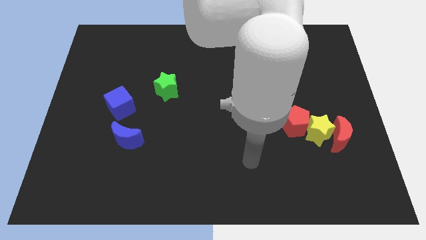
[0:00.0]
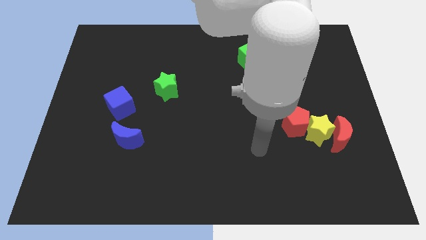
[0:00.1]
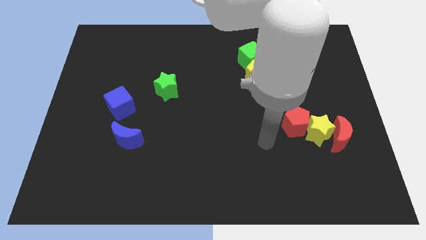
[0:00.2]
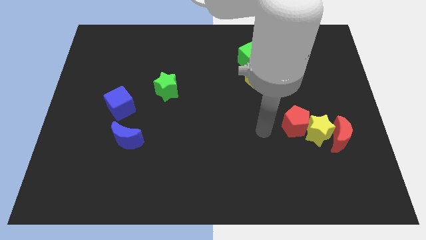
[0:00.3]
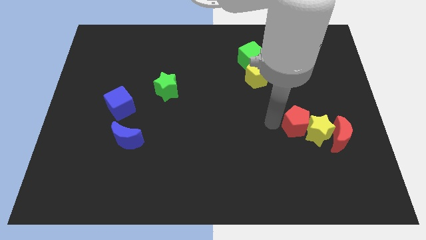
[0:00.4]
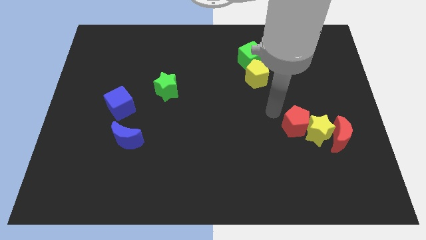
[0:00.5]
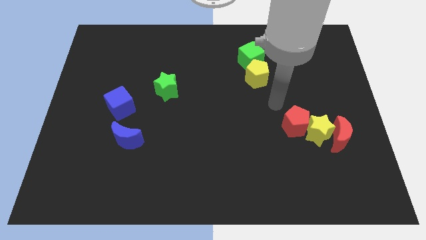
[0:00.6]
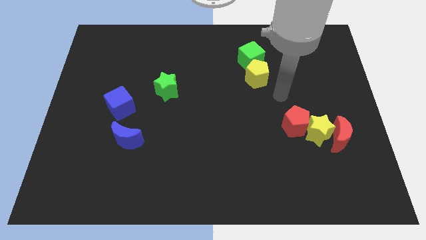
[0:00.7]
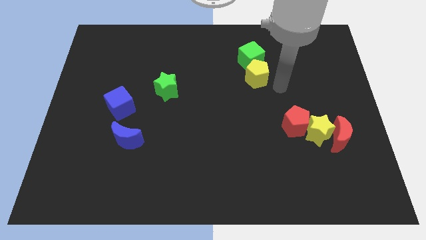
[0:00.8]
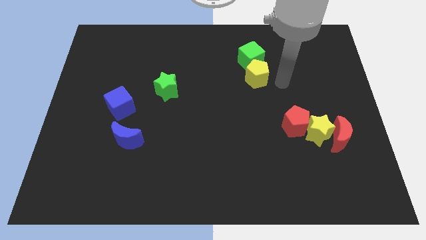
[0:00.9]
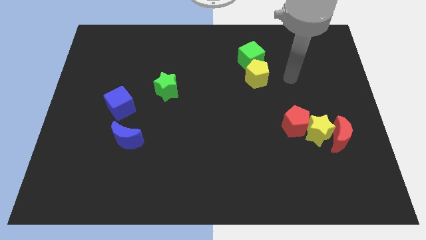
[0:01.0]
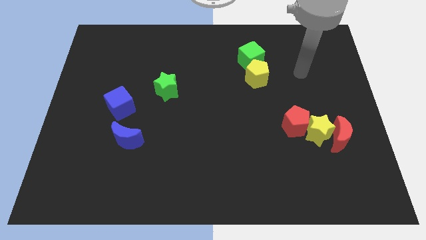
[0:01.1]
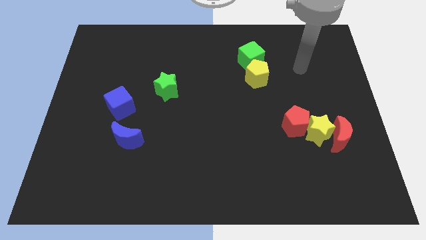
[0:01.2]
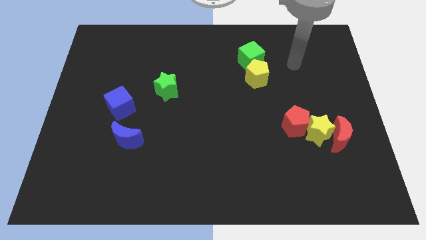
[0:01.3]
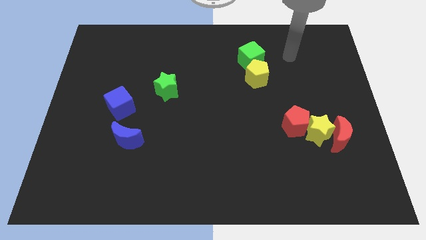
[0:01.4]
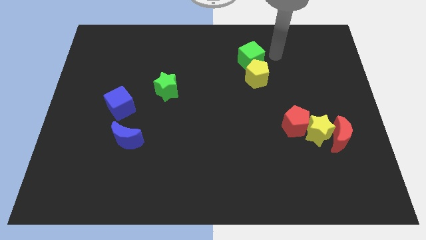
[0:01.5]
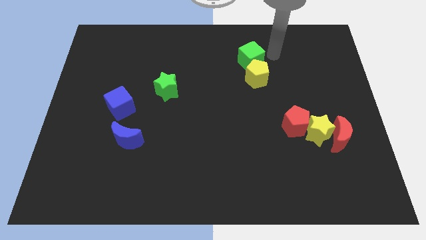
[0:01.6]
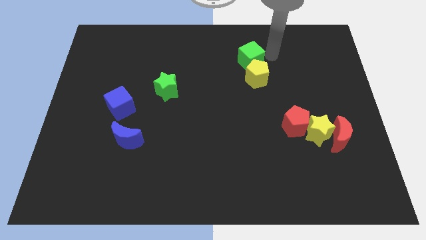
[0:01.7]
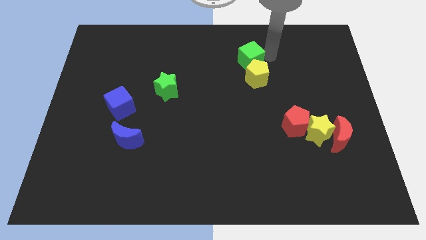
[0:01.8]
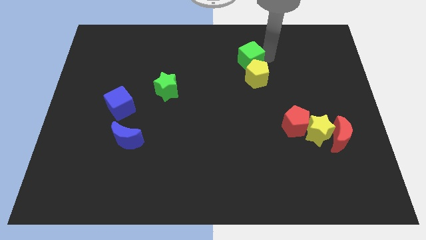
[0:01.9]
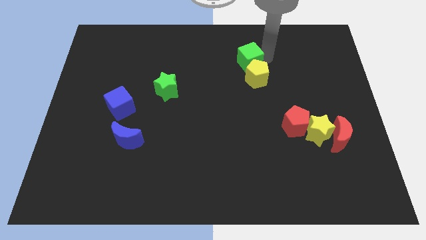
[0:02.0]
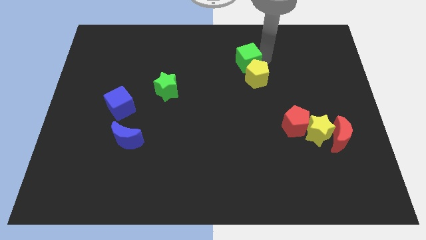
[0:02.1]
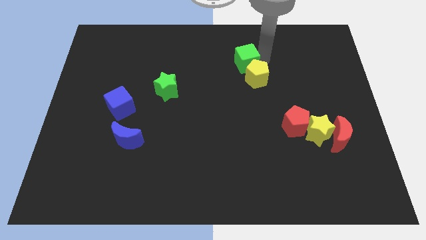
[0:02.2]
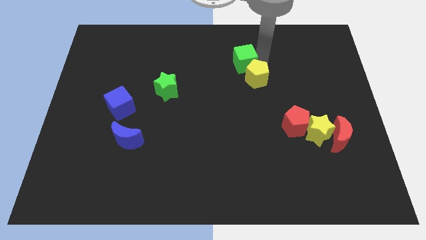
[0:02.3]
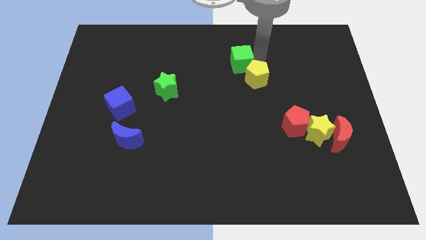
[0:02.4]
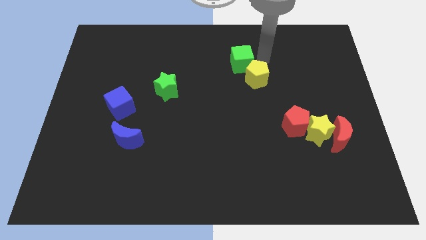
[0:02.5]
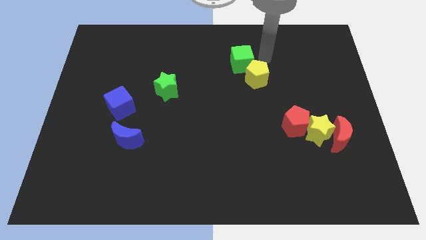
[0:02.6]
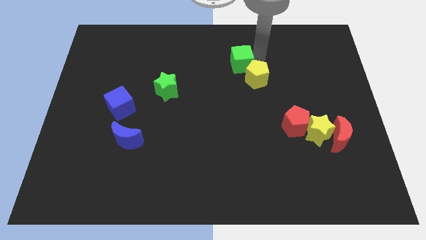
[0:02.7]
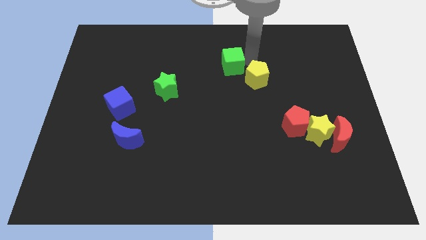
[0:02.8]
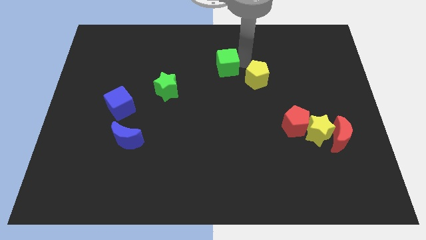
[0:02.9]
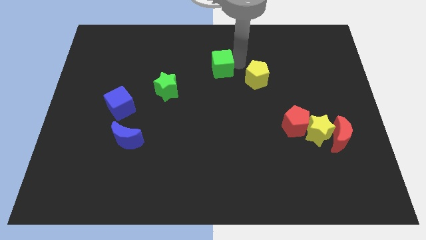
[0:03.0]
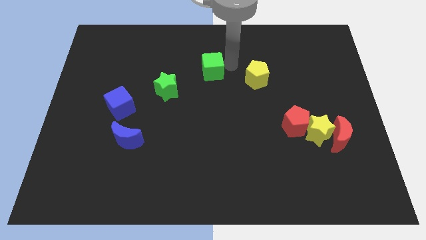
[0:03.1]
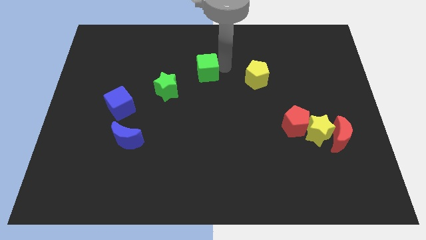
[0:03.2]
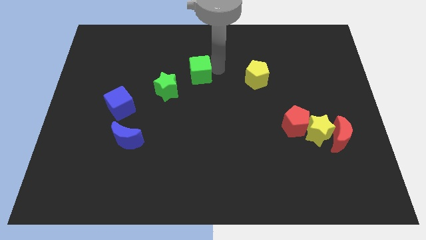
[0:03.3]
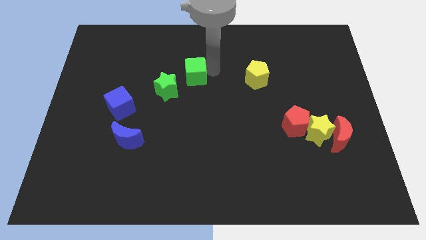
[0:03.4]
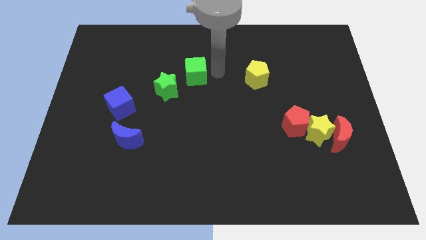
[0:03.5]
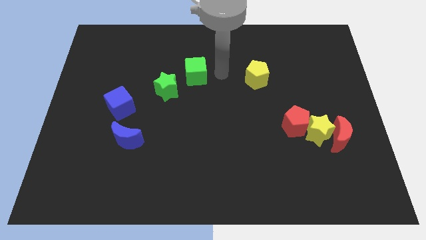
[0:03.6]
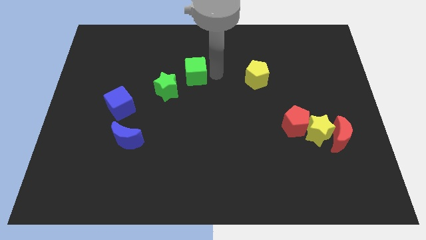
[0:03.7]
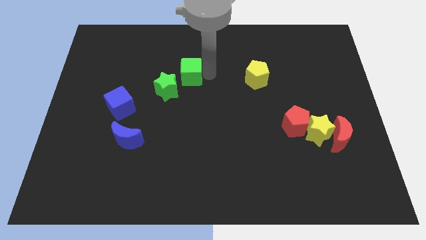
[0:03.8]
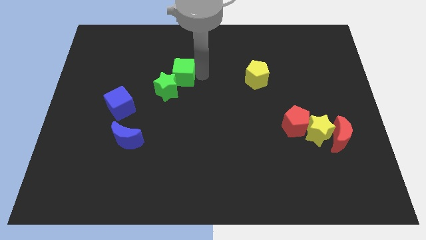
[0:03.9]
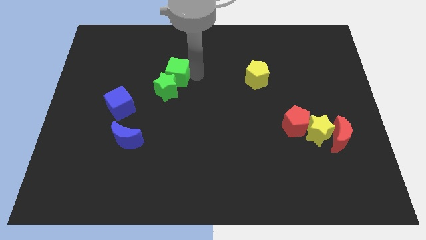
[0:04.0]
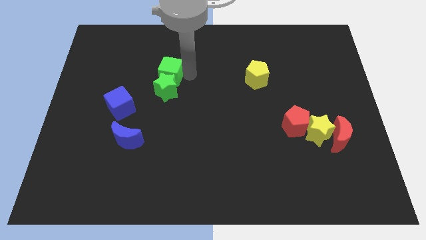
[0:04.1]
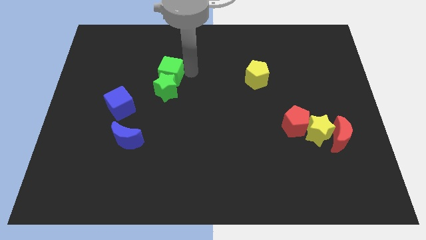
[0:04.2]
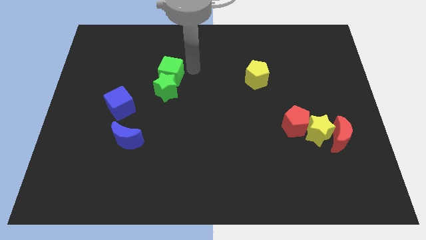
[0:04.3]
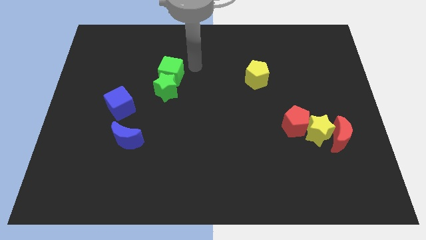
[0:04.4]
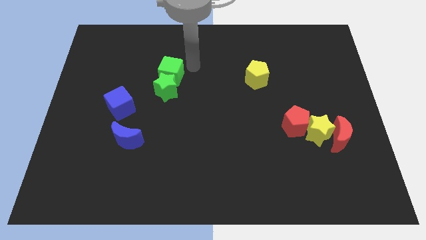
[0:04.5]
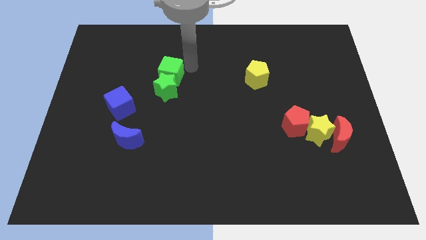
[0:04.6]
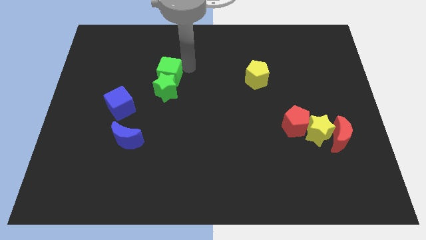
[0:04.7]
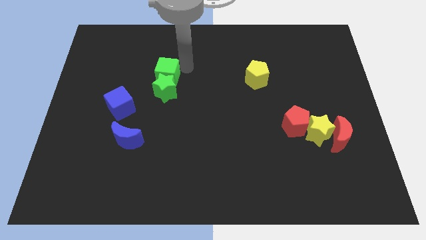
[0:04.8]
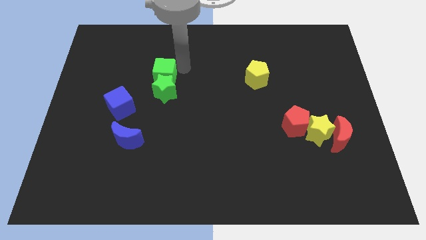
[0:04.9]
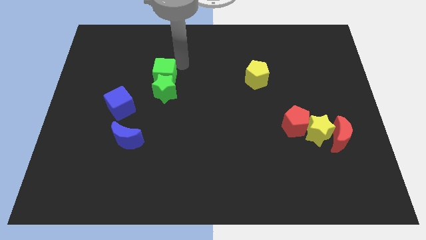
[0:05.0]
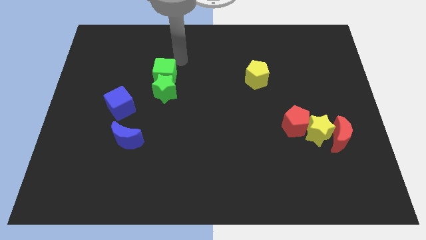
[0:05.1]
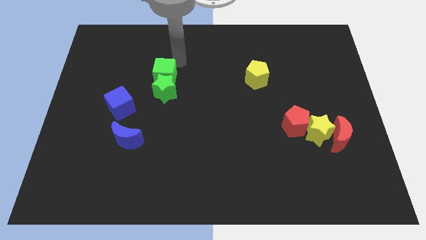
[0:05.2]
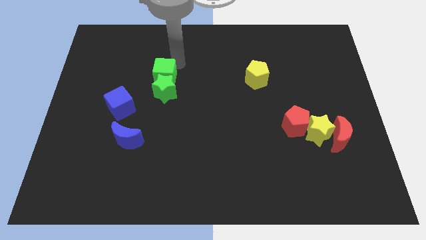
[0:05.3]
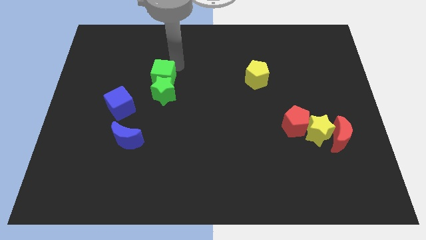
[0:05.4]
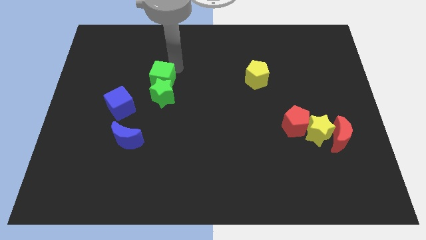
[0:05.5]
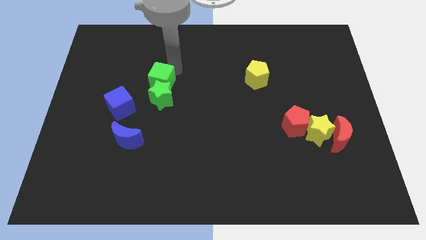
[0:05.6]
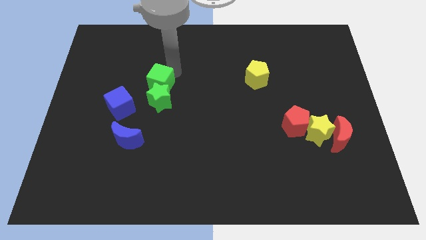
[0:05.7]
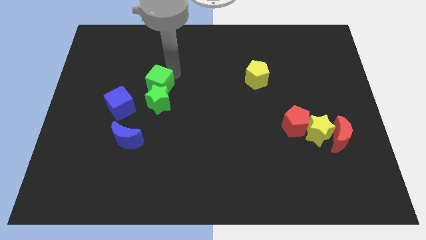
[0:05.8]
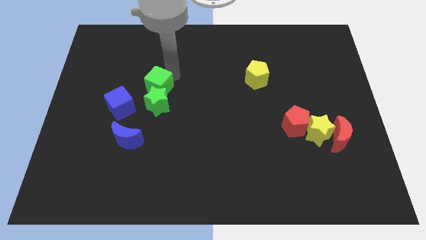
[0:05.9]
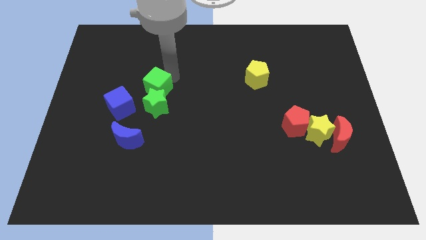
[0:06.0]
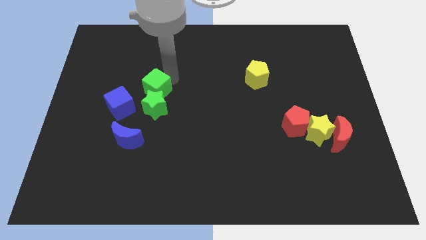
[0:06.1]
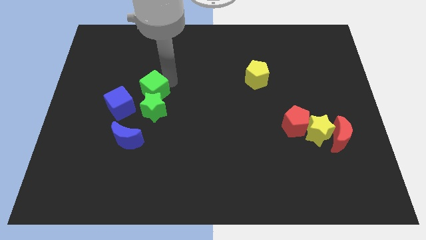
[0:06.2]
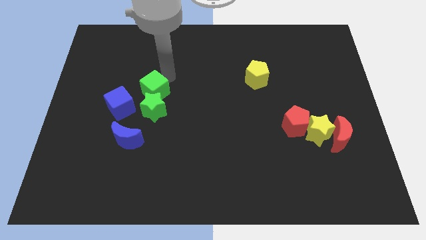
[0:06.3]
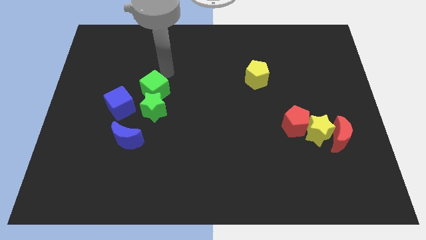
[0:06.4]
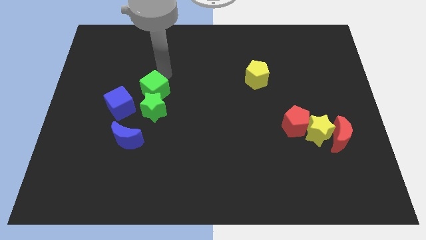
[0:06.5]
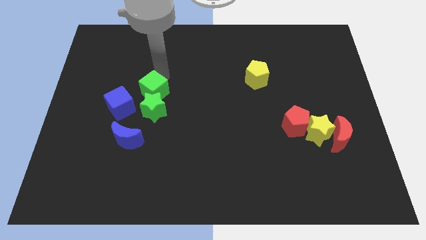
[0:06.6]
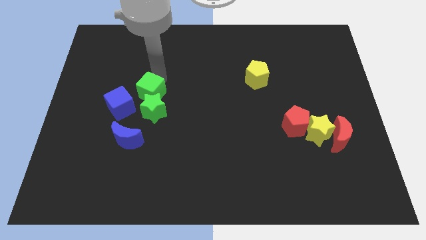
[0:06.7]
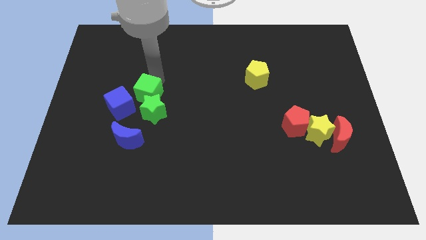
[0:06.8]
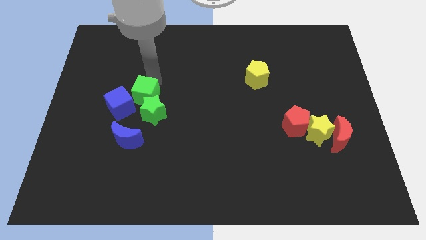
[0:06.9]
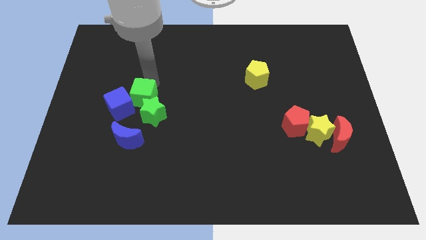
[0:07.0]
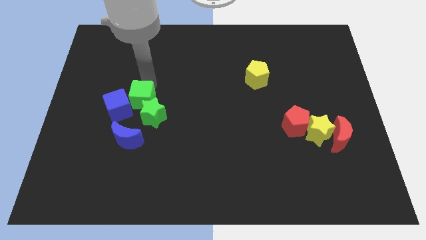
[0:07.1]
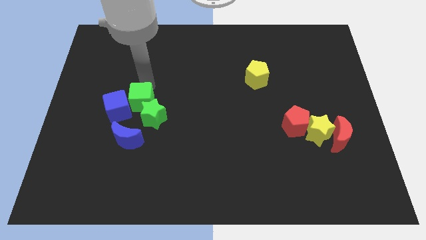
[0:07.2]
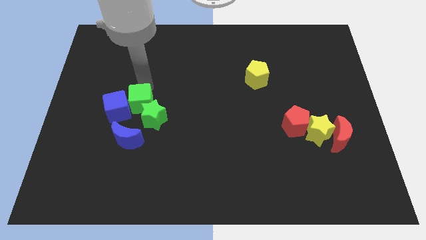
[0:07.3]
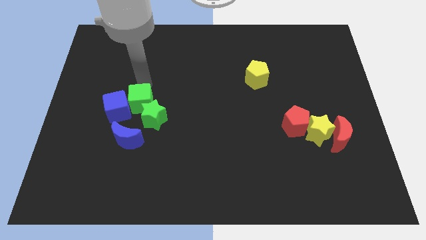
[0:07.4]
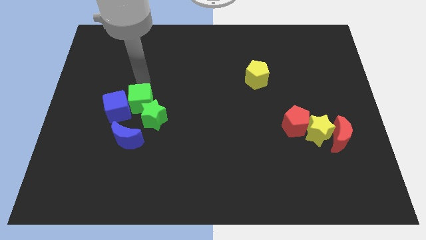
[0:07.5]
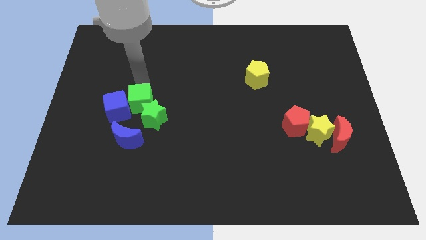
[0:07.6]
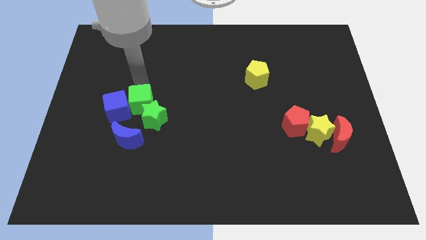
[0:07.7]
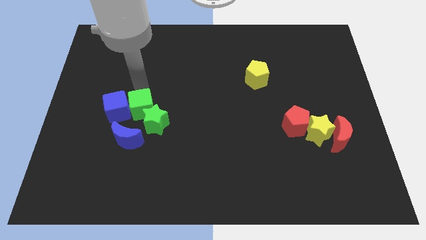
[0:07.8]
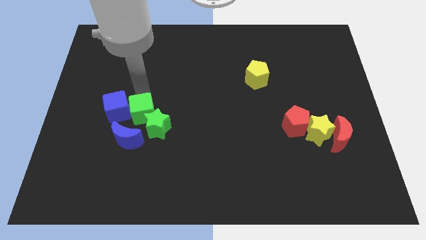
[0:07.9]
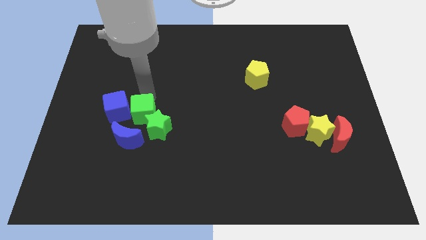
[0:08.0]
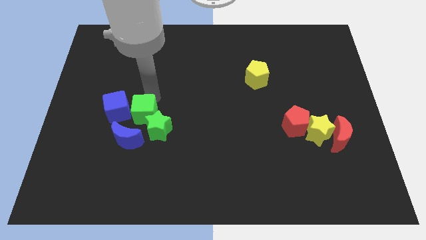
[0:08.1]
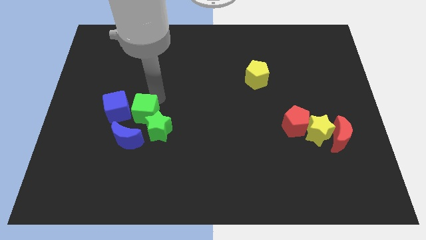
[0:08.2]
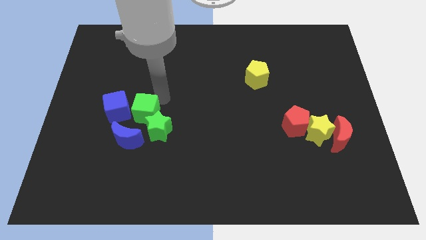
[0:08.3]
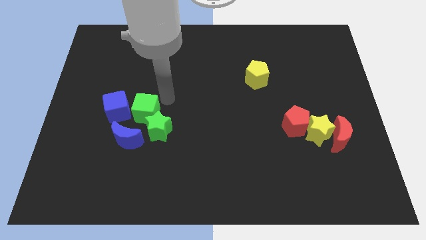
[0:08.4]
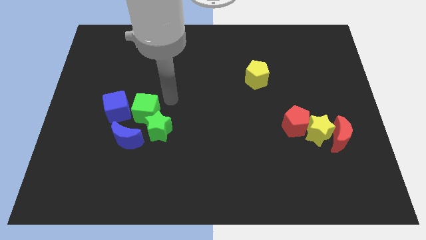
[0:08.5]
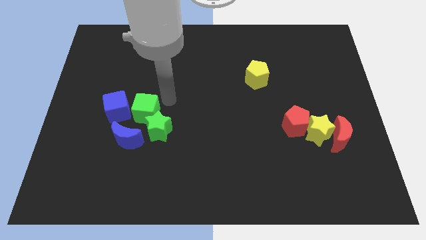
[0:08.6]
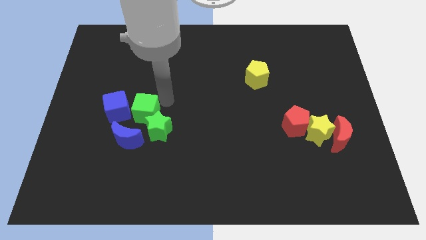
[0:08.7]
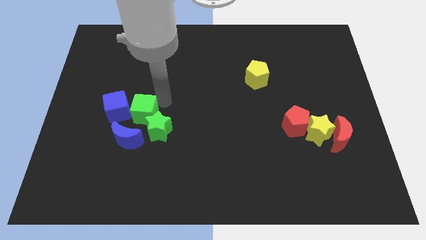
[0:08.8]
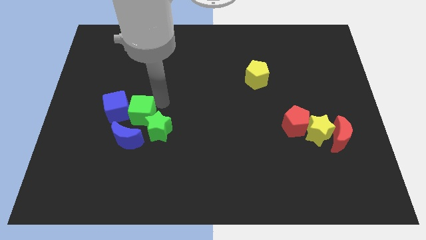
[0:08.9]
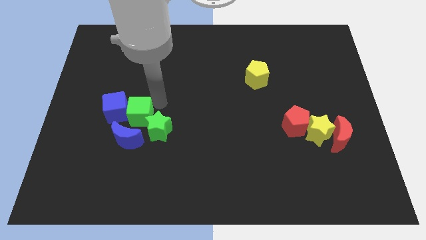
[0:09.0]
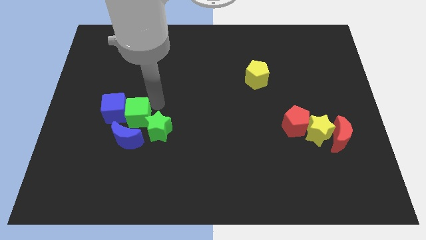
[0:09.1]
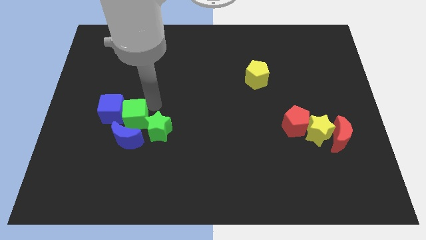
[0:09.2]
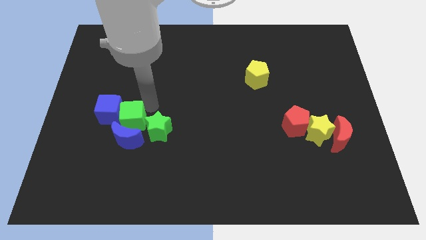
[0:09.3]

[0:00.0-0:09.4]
push the green cube to the top left side of the blue moon
